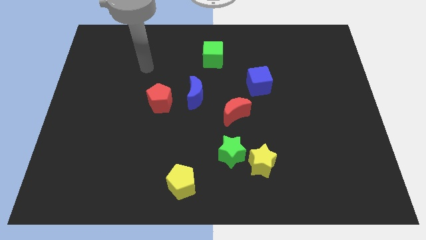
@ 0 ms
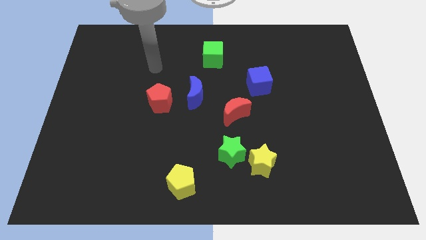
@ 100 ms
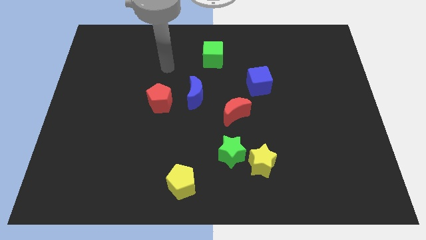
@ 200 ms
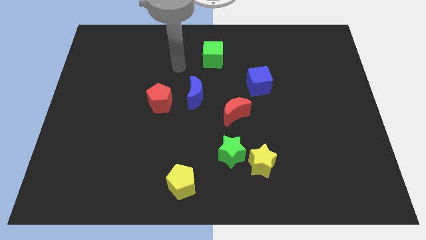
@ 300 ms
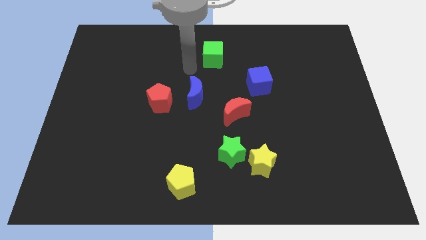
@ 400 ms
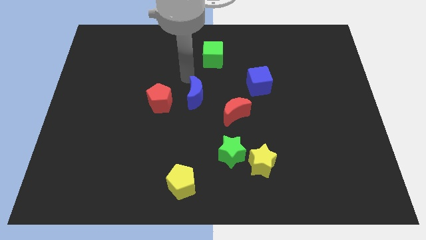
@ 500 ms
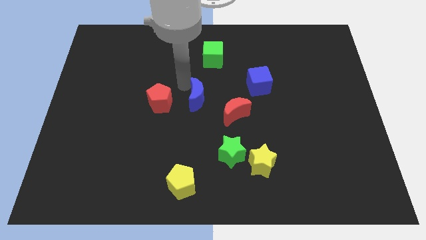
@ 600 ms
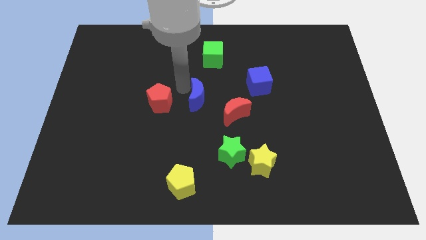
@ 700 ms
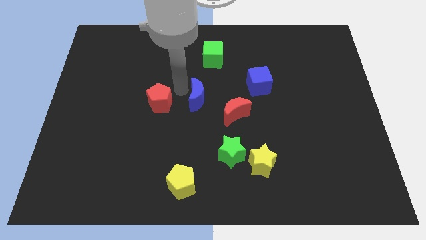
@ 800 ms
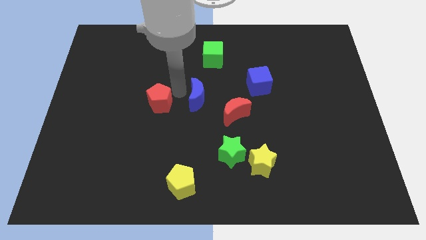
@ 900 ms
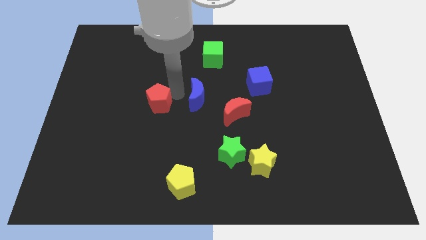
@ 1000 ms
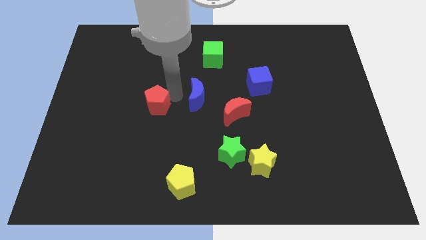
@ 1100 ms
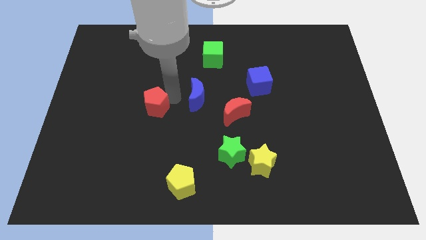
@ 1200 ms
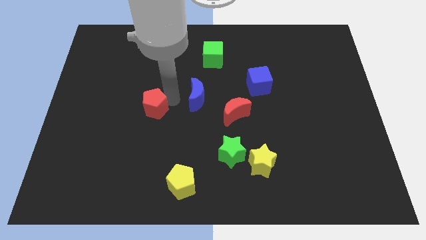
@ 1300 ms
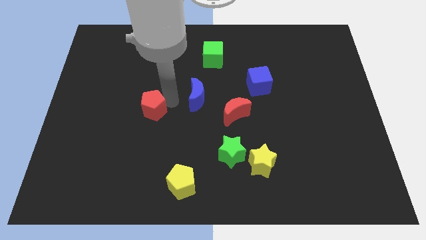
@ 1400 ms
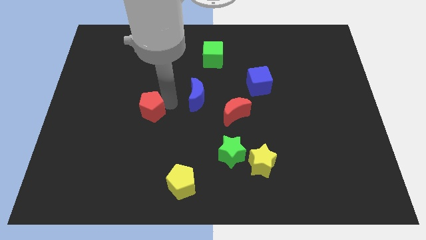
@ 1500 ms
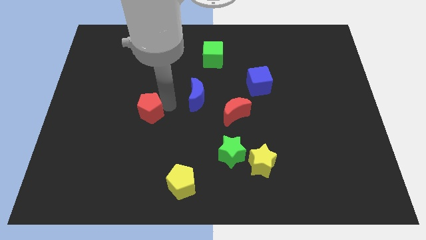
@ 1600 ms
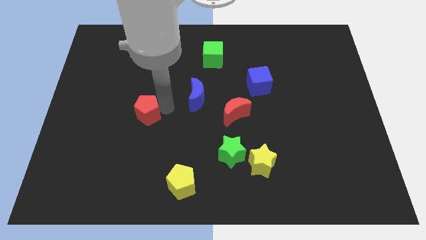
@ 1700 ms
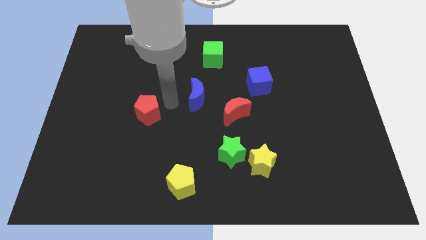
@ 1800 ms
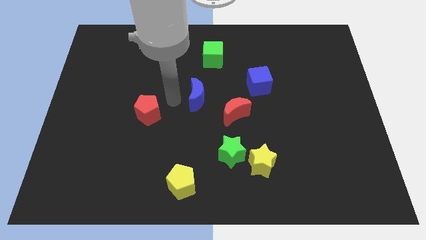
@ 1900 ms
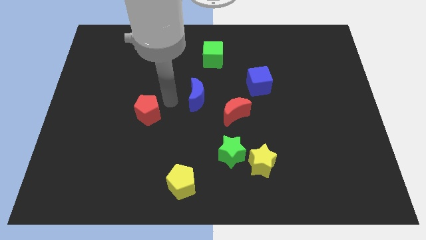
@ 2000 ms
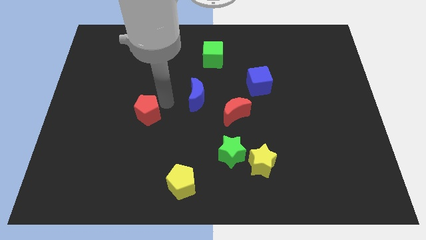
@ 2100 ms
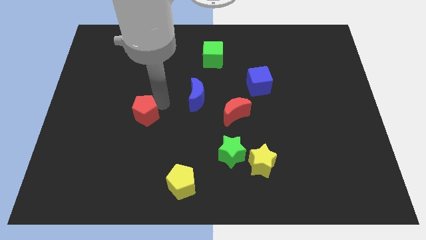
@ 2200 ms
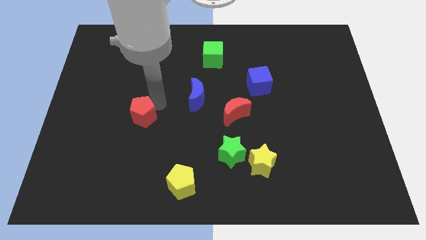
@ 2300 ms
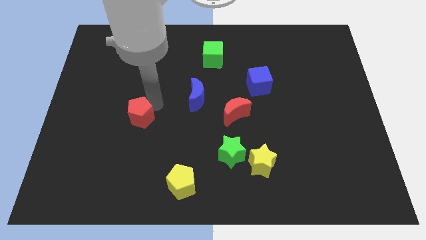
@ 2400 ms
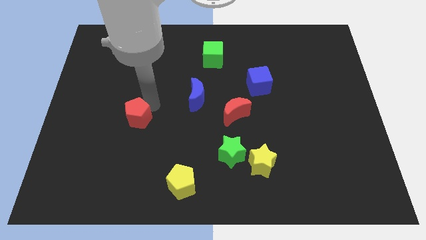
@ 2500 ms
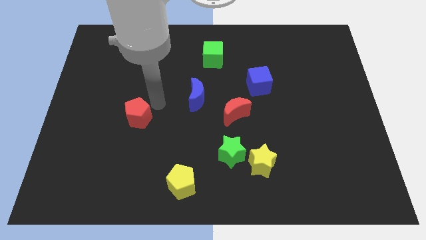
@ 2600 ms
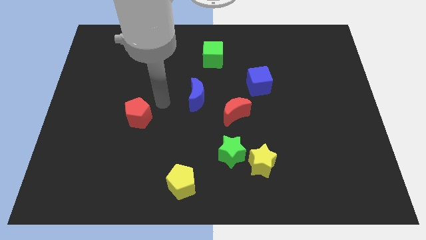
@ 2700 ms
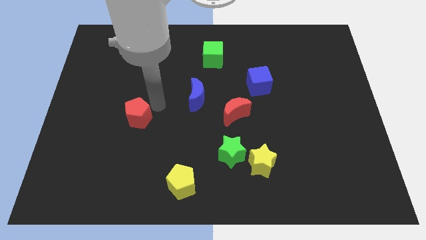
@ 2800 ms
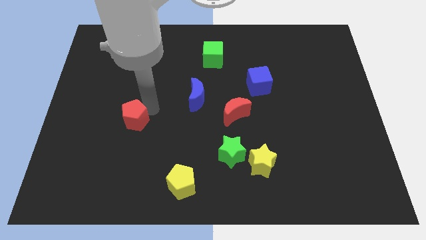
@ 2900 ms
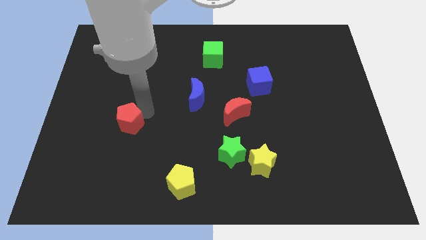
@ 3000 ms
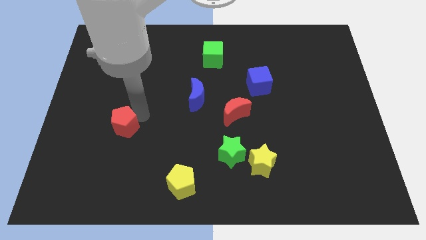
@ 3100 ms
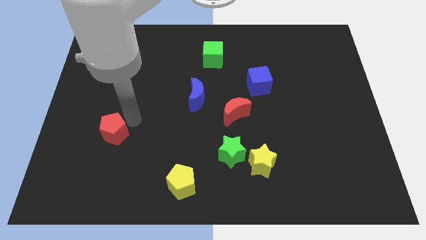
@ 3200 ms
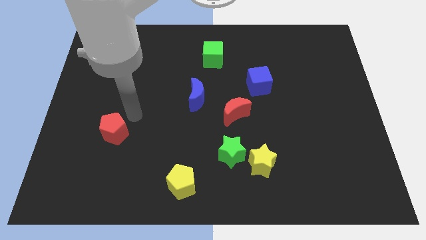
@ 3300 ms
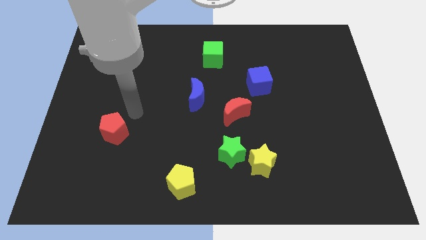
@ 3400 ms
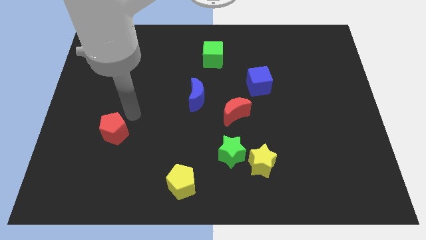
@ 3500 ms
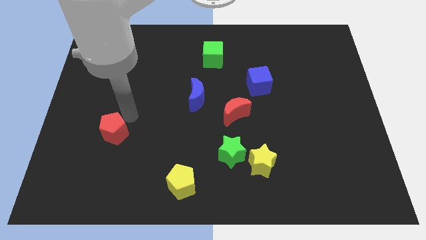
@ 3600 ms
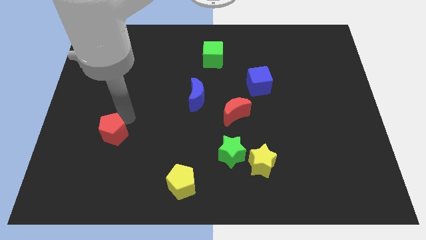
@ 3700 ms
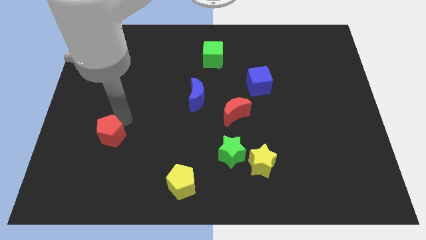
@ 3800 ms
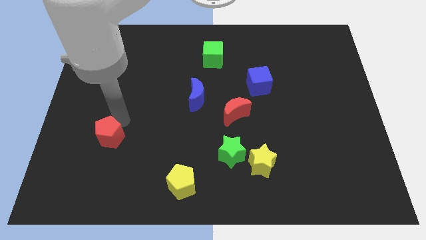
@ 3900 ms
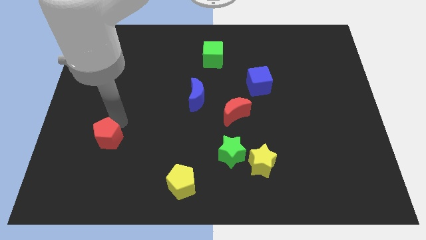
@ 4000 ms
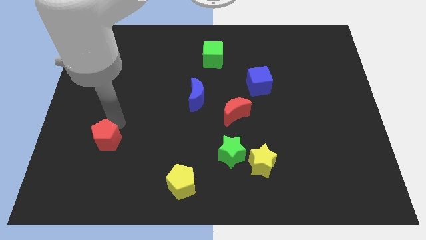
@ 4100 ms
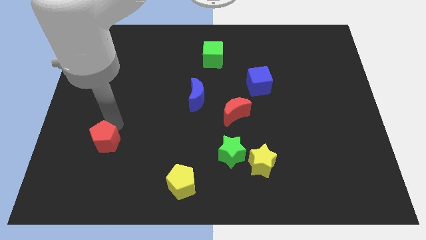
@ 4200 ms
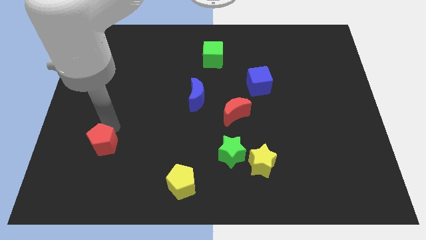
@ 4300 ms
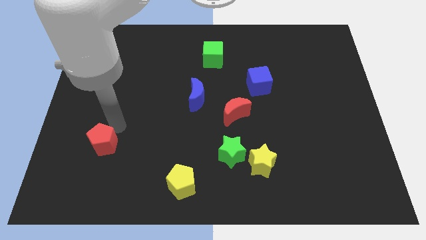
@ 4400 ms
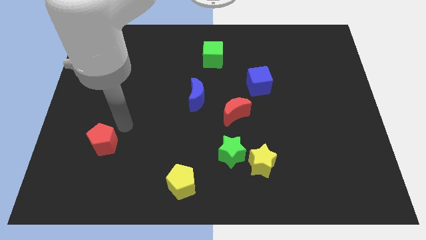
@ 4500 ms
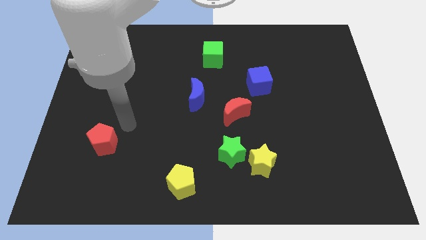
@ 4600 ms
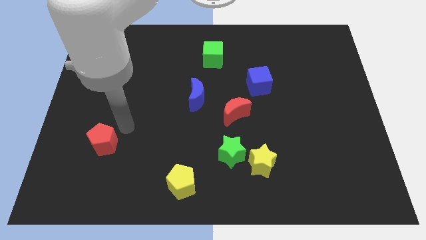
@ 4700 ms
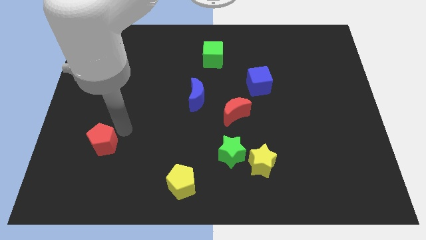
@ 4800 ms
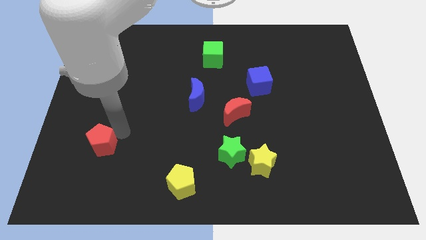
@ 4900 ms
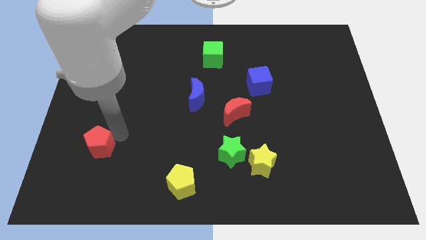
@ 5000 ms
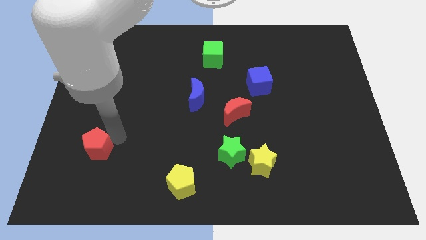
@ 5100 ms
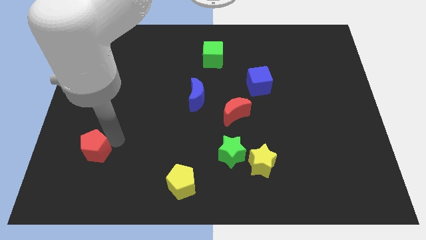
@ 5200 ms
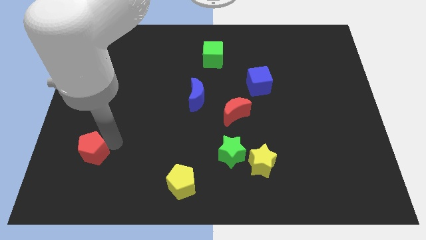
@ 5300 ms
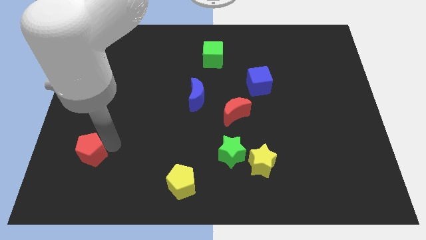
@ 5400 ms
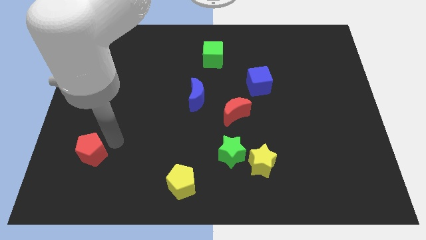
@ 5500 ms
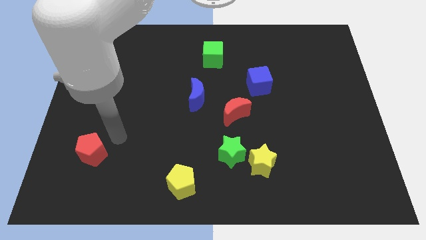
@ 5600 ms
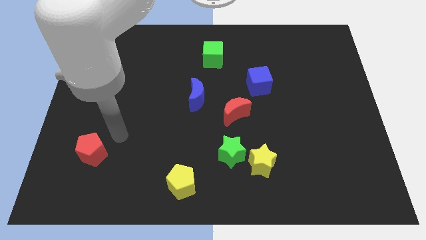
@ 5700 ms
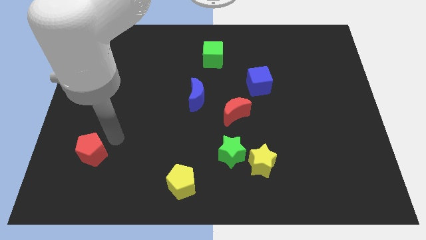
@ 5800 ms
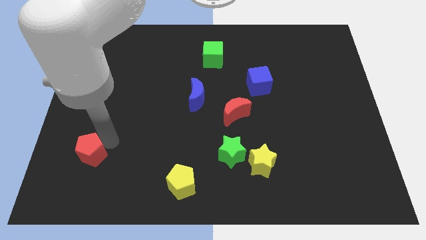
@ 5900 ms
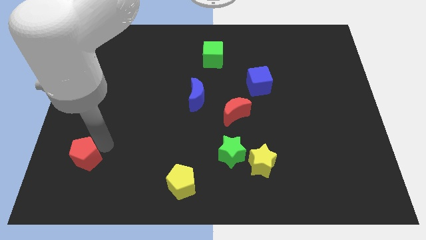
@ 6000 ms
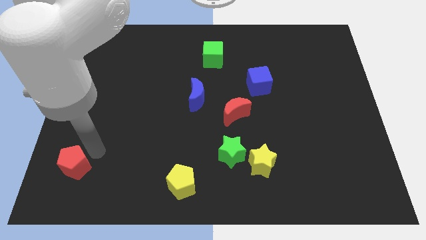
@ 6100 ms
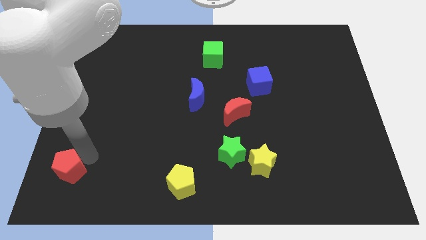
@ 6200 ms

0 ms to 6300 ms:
put the red pentagon to the bottom left of the board
